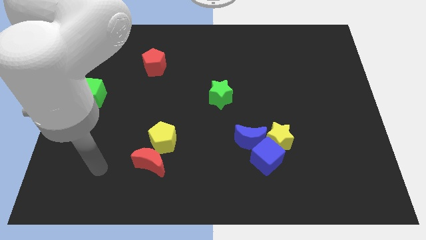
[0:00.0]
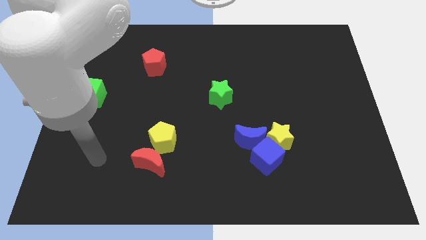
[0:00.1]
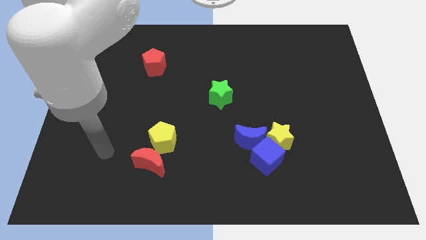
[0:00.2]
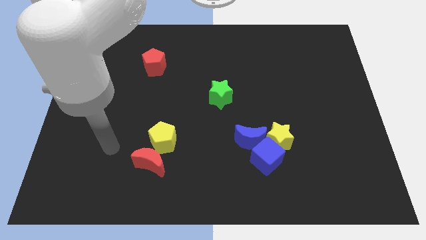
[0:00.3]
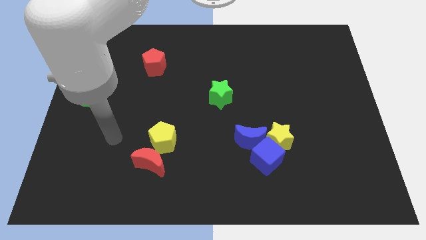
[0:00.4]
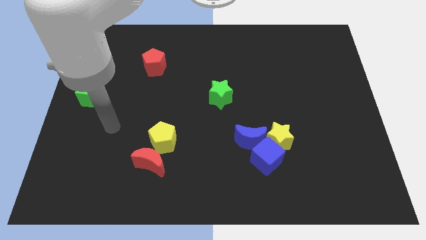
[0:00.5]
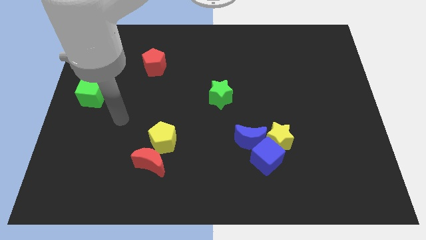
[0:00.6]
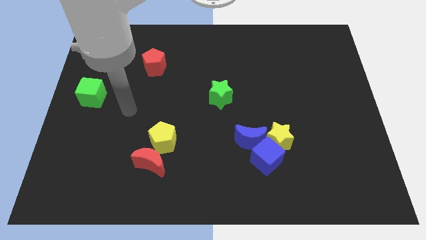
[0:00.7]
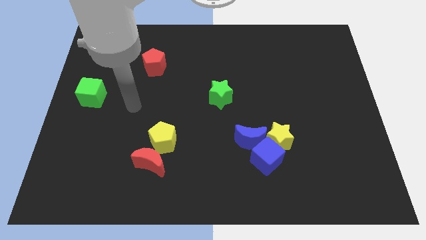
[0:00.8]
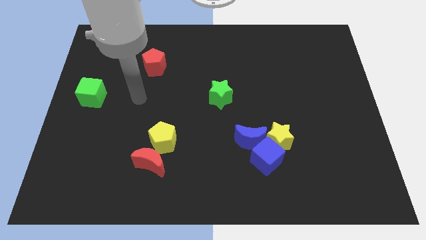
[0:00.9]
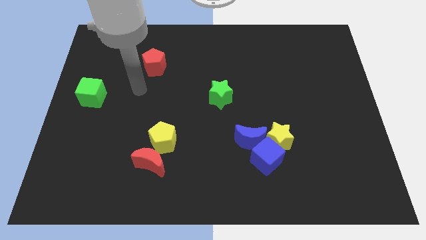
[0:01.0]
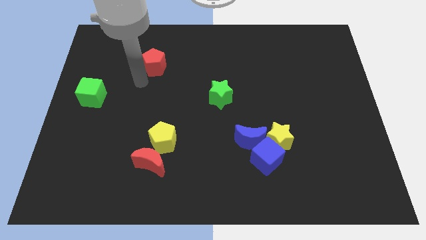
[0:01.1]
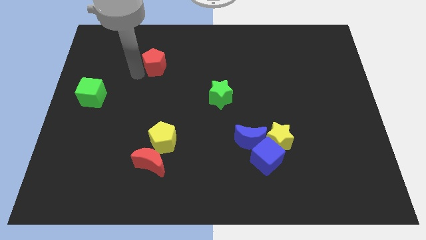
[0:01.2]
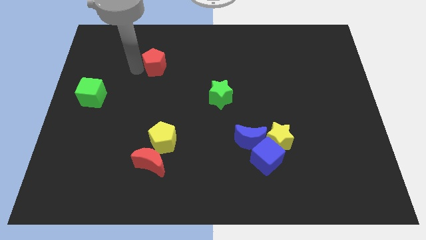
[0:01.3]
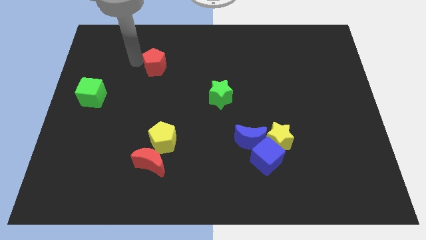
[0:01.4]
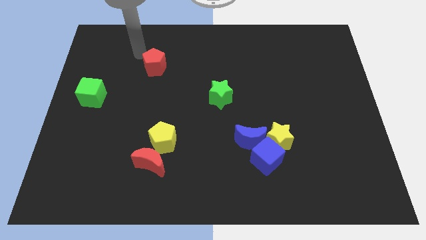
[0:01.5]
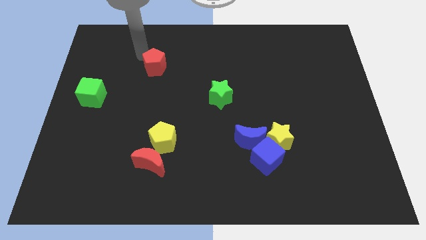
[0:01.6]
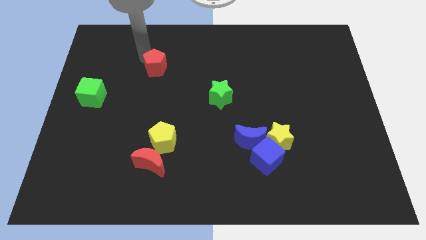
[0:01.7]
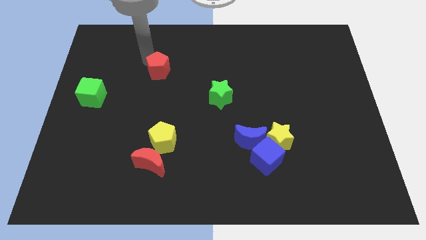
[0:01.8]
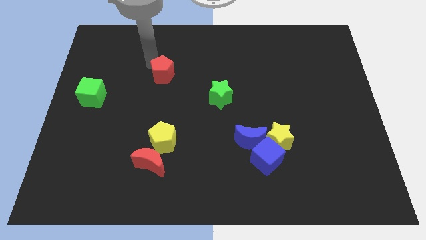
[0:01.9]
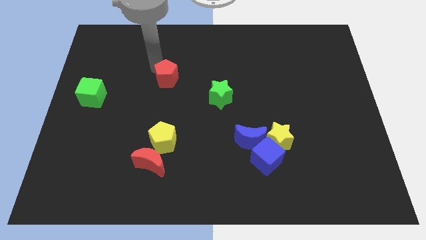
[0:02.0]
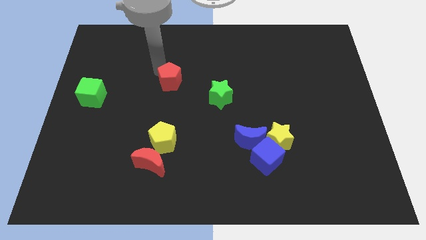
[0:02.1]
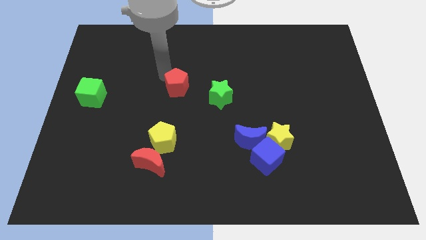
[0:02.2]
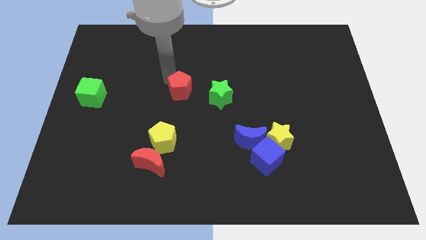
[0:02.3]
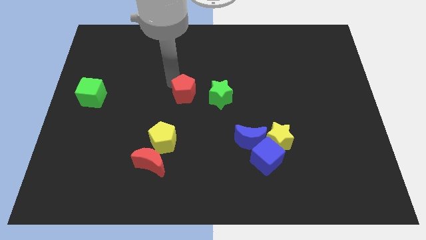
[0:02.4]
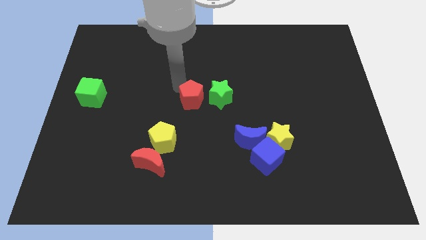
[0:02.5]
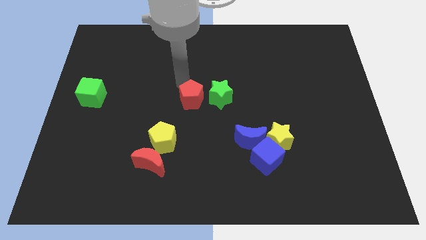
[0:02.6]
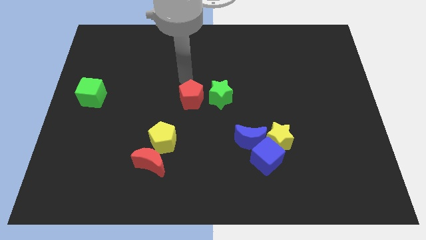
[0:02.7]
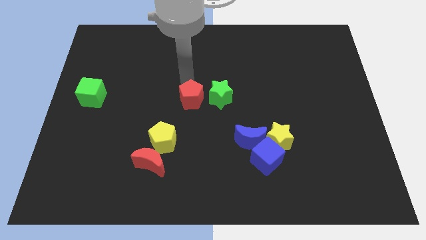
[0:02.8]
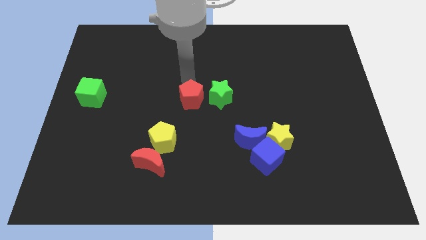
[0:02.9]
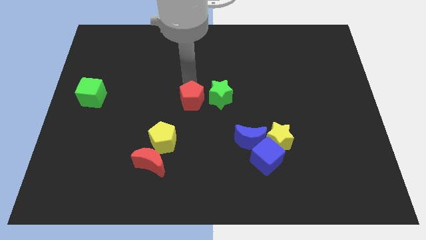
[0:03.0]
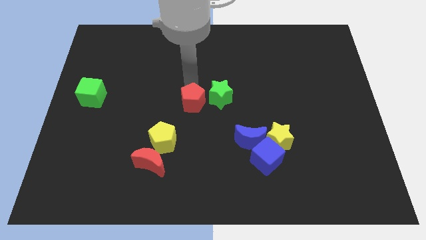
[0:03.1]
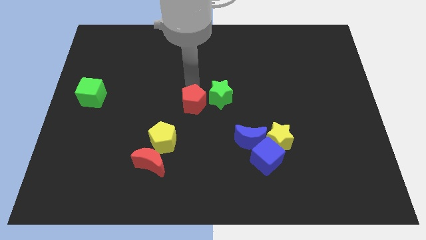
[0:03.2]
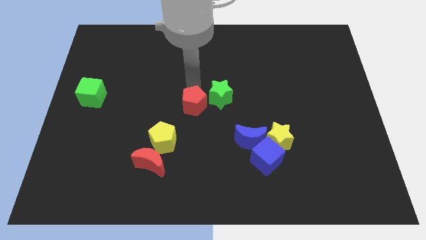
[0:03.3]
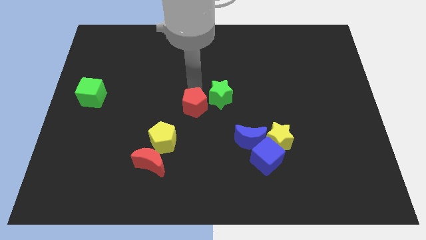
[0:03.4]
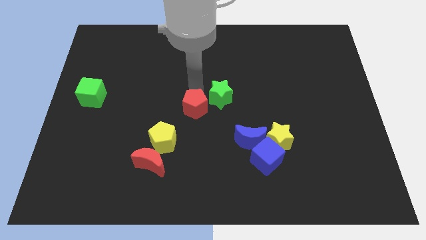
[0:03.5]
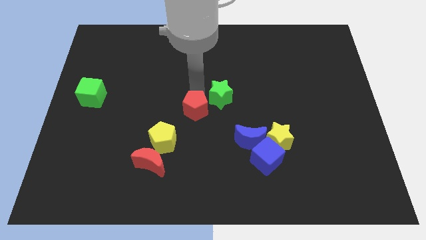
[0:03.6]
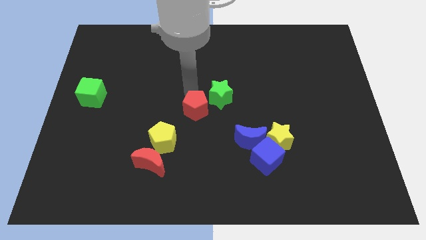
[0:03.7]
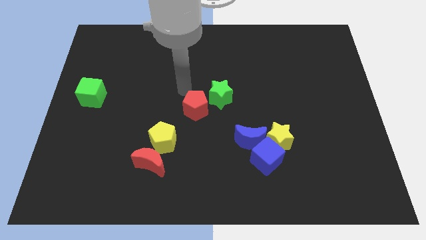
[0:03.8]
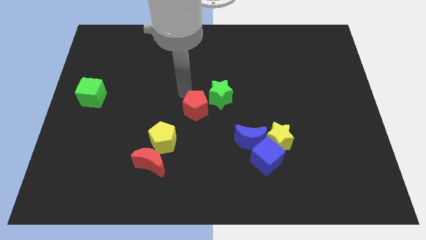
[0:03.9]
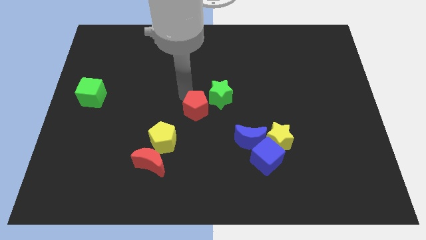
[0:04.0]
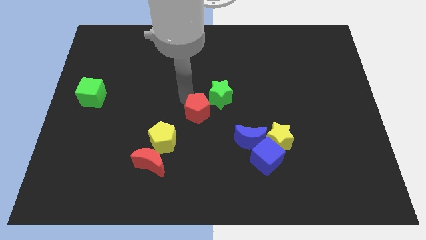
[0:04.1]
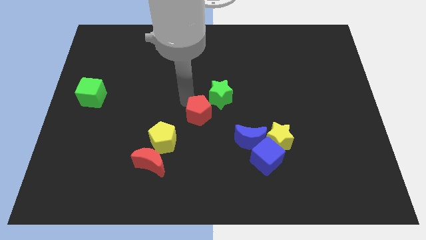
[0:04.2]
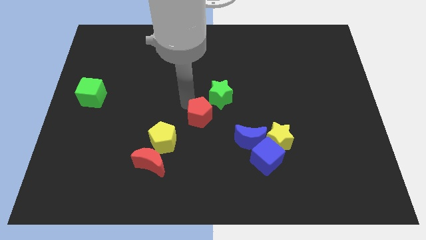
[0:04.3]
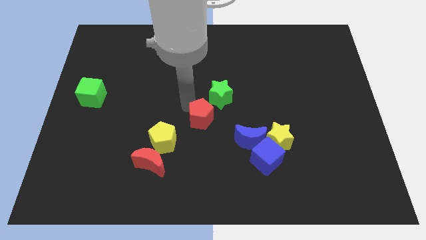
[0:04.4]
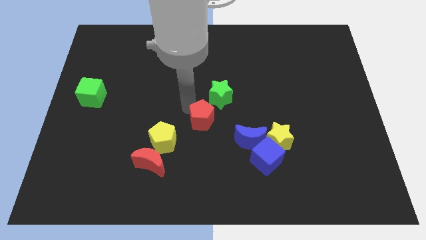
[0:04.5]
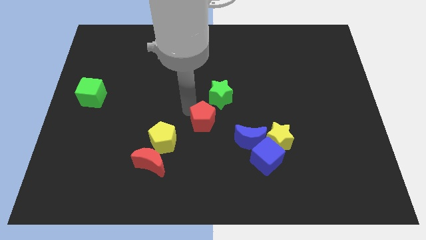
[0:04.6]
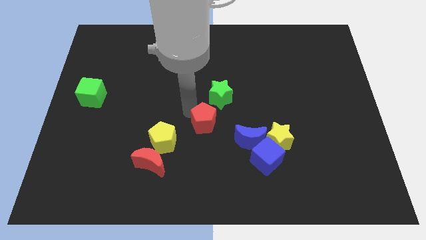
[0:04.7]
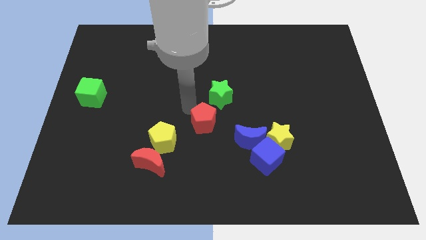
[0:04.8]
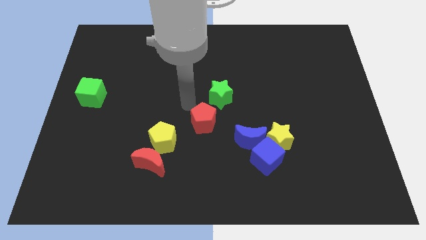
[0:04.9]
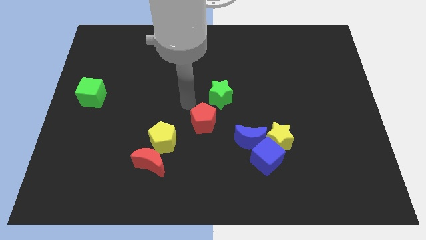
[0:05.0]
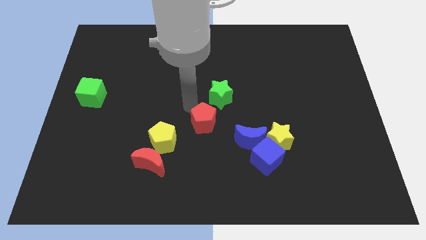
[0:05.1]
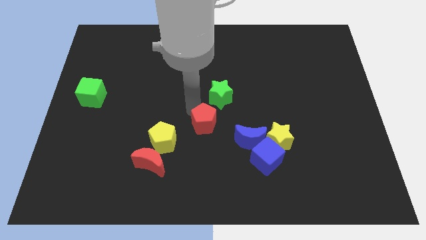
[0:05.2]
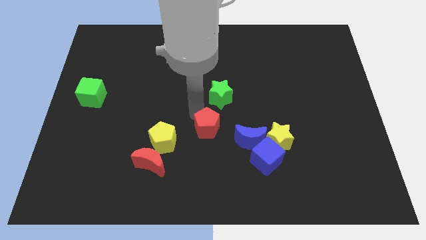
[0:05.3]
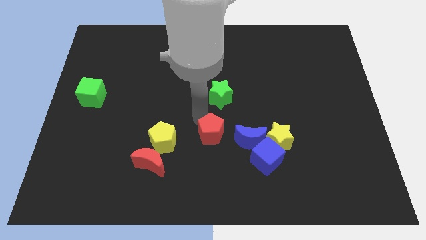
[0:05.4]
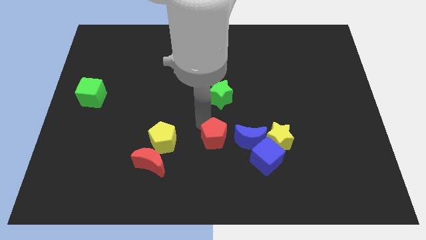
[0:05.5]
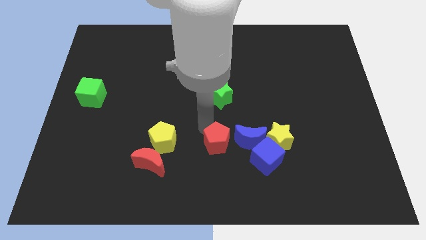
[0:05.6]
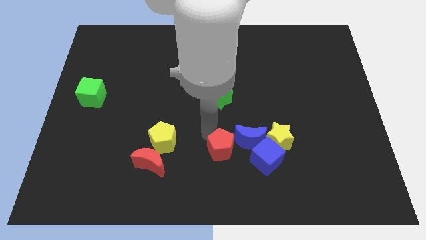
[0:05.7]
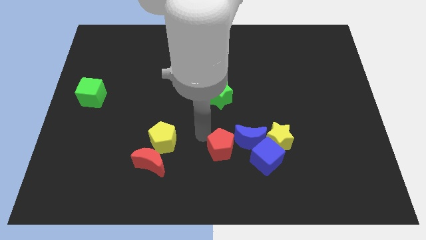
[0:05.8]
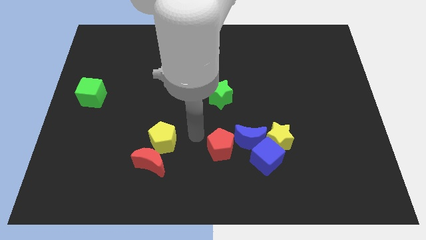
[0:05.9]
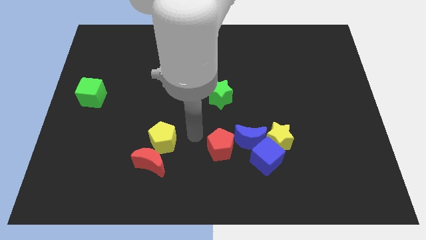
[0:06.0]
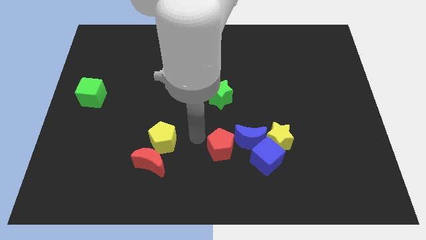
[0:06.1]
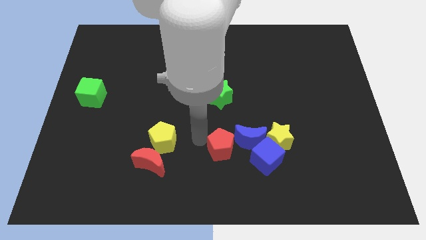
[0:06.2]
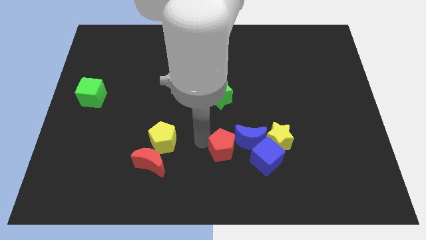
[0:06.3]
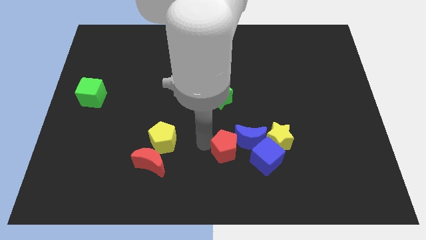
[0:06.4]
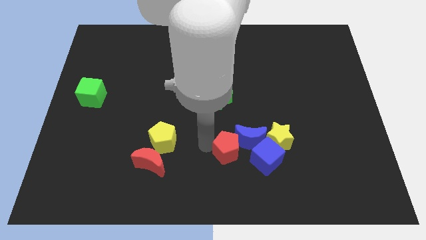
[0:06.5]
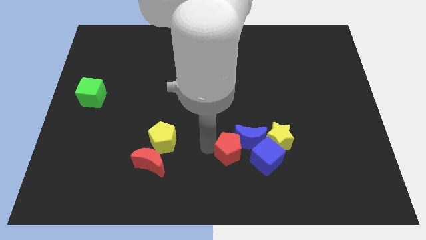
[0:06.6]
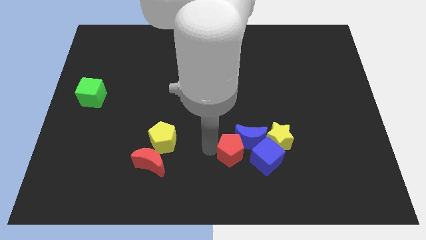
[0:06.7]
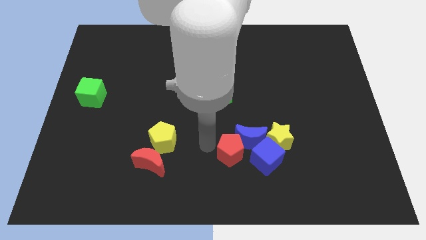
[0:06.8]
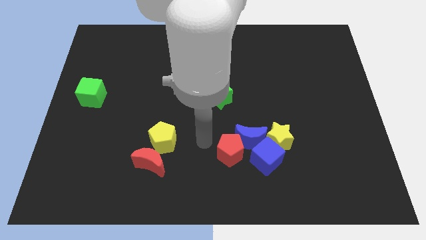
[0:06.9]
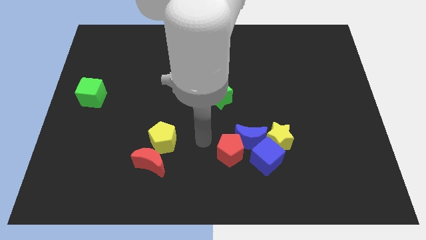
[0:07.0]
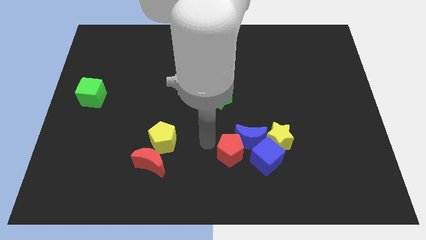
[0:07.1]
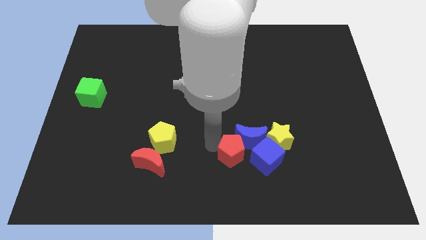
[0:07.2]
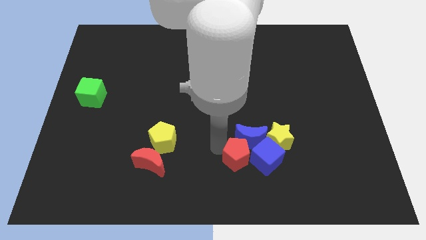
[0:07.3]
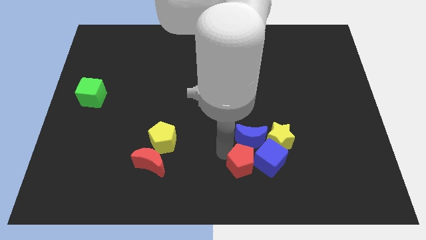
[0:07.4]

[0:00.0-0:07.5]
put the red pentagon towards the blue cube
